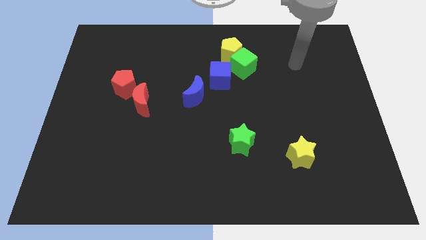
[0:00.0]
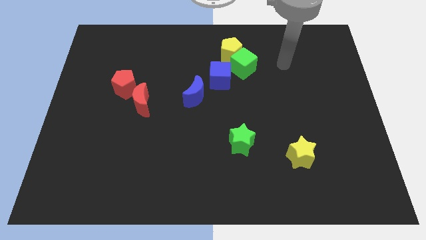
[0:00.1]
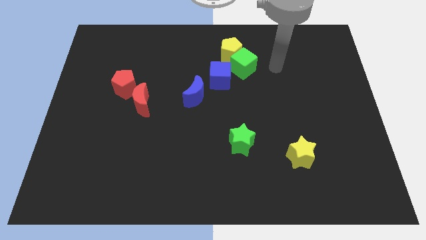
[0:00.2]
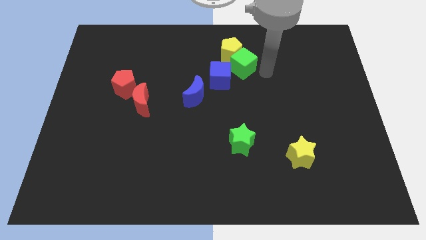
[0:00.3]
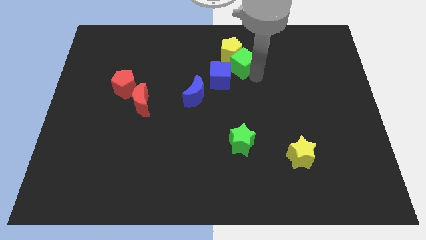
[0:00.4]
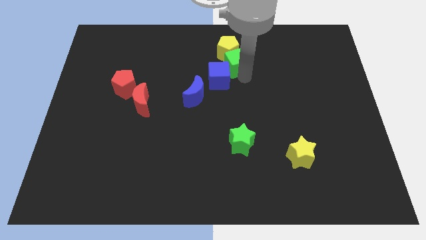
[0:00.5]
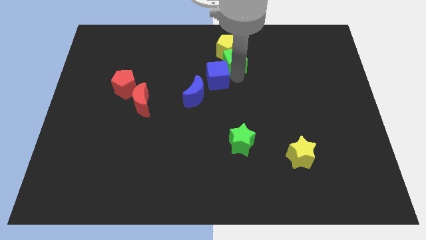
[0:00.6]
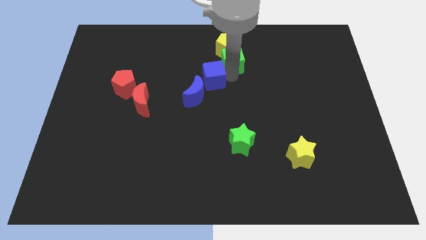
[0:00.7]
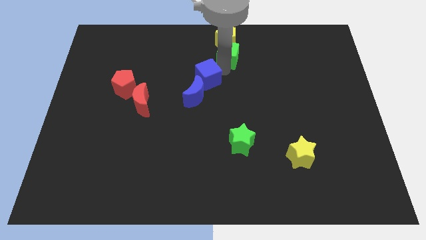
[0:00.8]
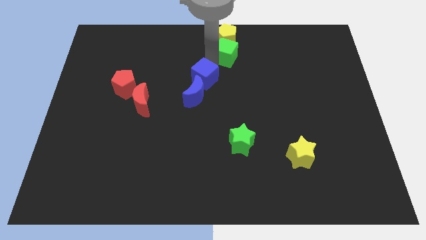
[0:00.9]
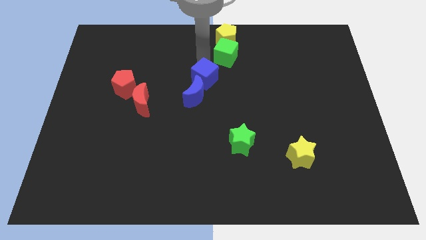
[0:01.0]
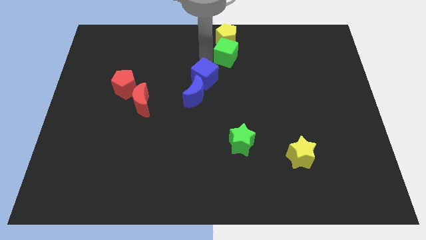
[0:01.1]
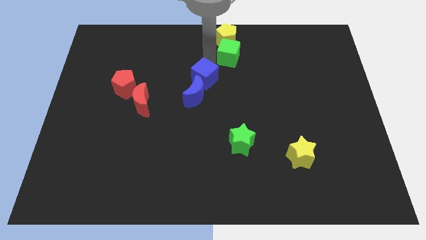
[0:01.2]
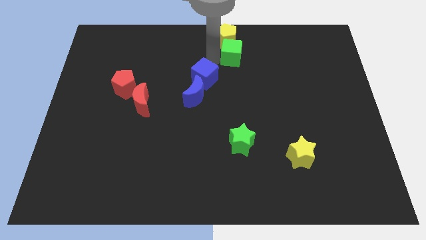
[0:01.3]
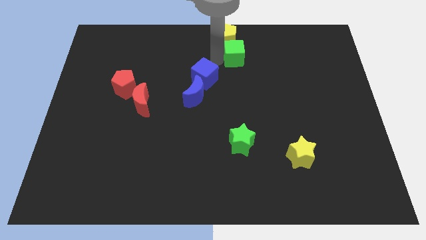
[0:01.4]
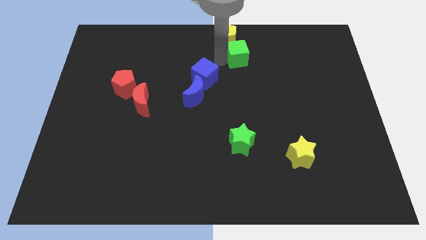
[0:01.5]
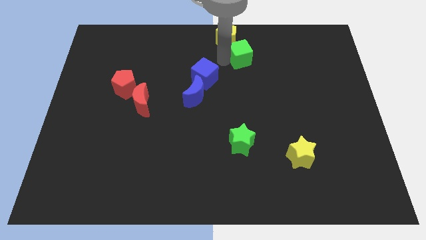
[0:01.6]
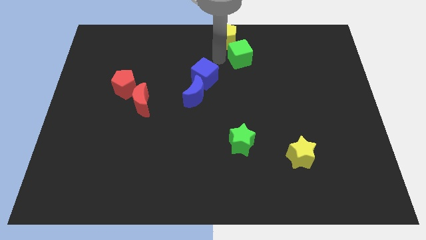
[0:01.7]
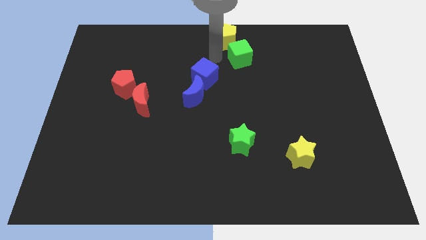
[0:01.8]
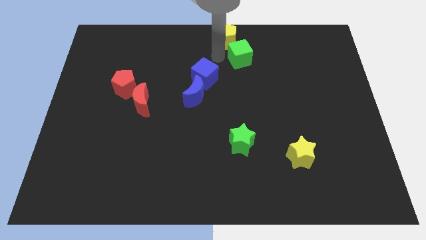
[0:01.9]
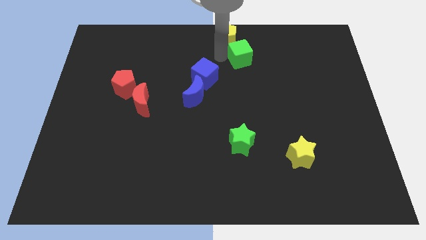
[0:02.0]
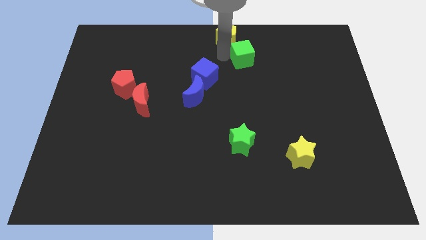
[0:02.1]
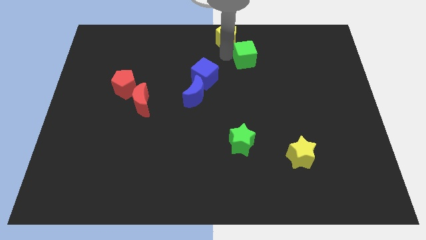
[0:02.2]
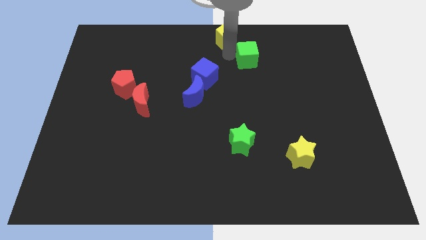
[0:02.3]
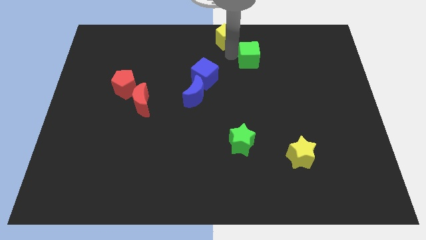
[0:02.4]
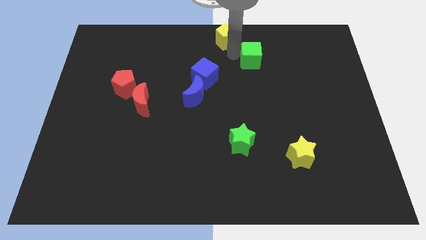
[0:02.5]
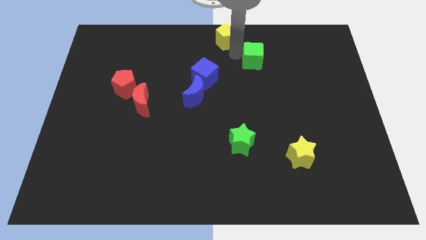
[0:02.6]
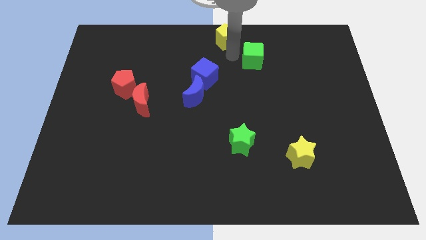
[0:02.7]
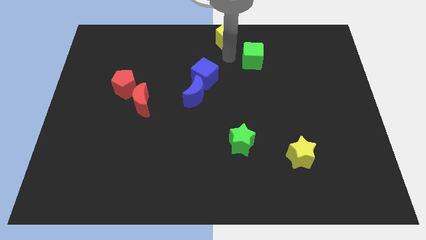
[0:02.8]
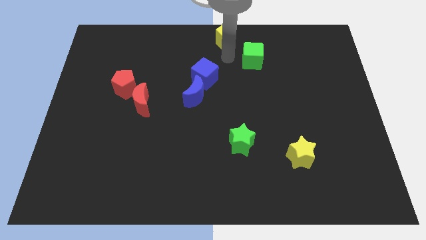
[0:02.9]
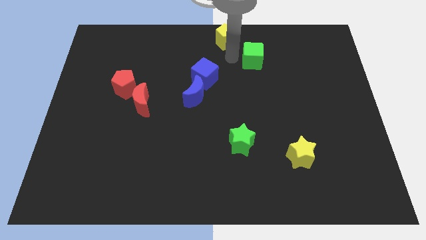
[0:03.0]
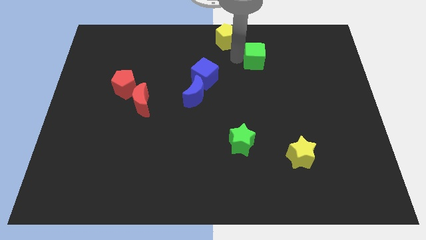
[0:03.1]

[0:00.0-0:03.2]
move the green cube away from the yellow pentagon and blue cube

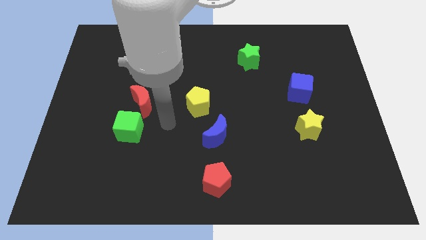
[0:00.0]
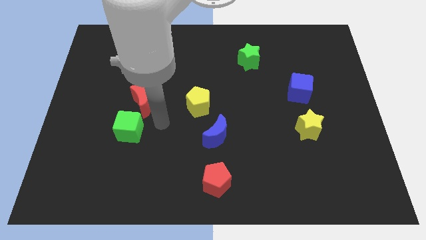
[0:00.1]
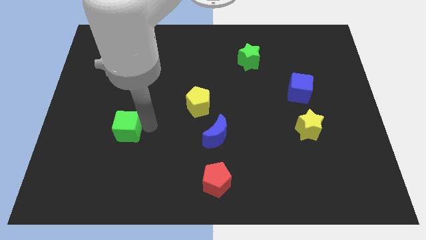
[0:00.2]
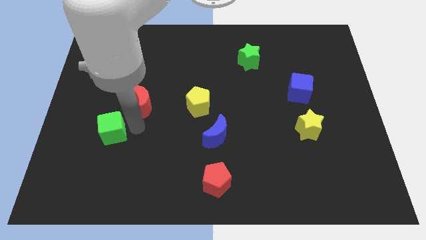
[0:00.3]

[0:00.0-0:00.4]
move the red moon away from the green cube

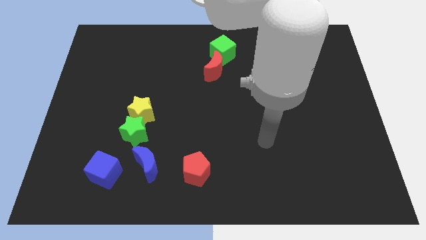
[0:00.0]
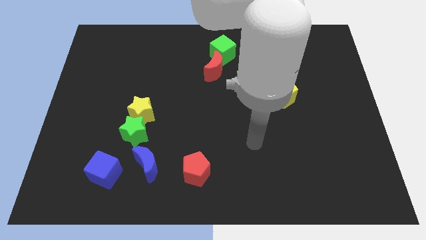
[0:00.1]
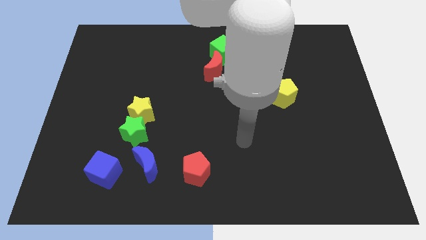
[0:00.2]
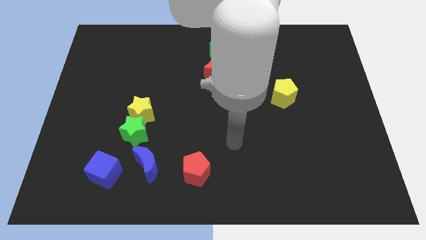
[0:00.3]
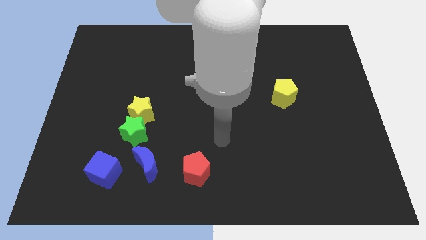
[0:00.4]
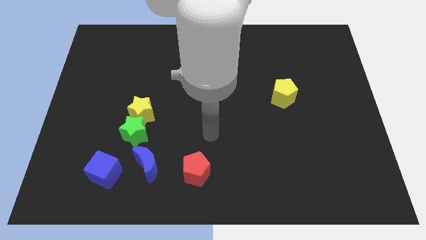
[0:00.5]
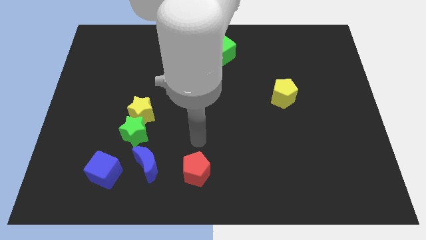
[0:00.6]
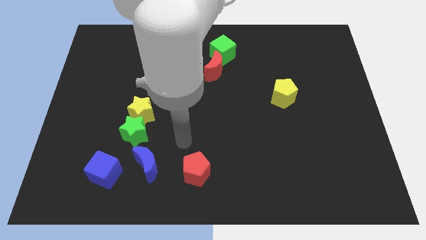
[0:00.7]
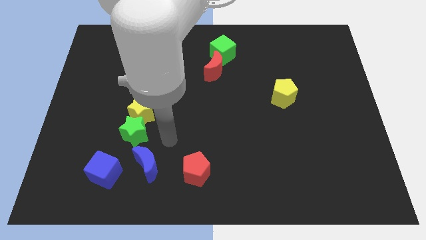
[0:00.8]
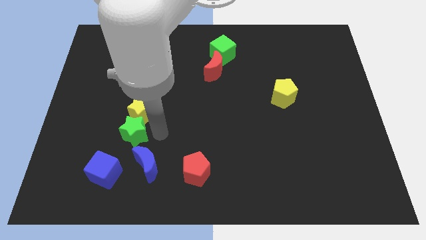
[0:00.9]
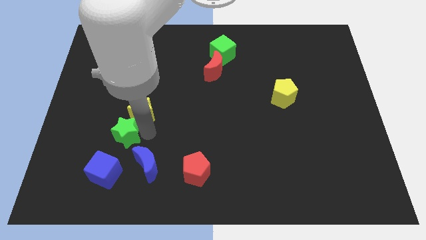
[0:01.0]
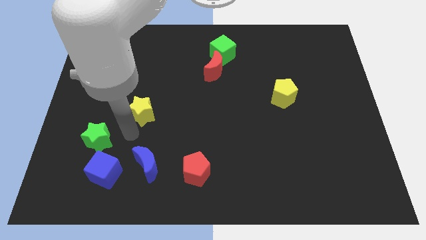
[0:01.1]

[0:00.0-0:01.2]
move the yellow star away from the green star

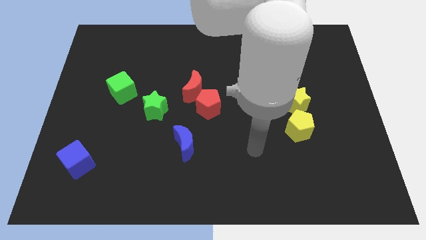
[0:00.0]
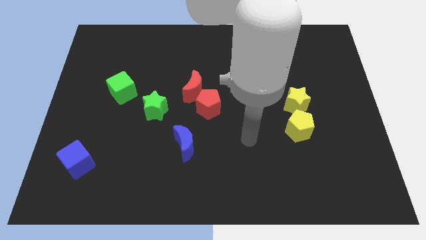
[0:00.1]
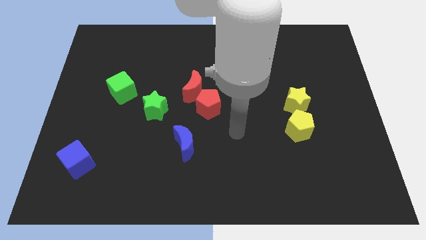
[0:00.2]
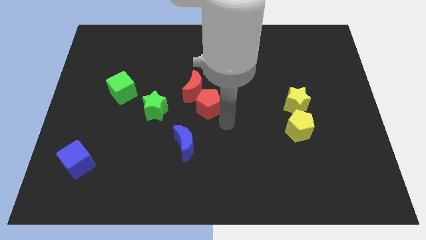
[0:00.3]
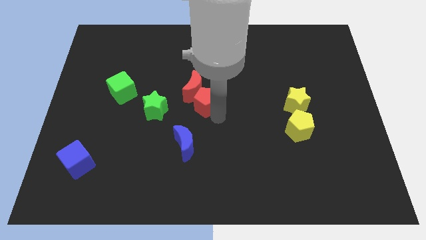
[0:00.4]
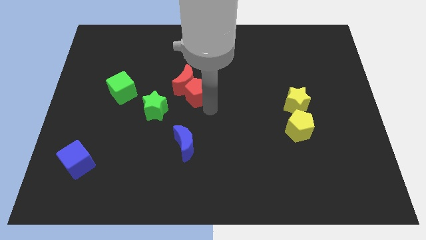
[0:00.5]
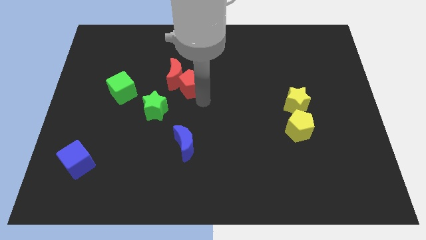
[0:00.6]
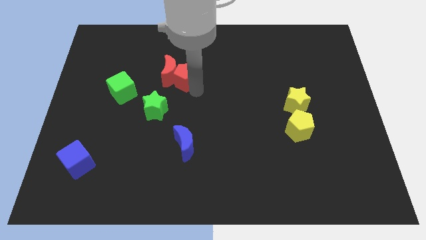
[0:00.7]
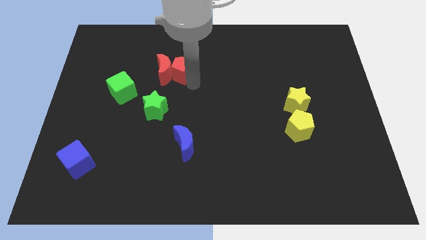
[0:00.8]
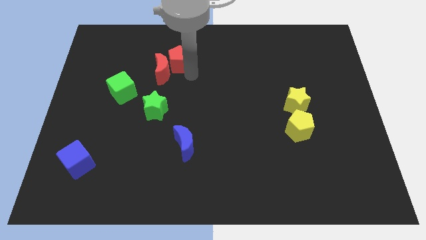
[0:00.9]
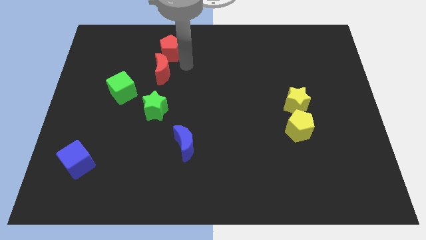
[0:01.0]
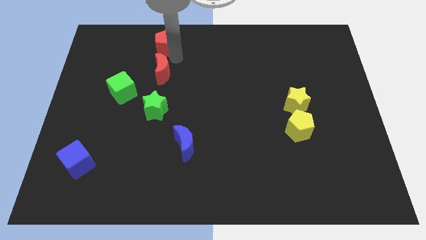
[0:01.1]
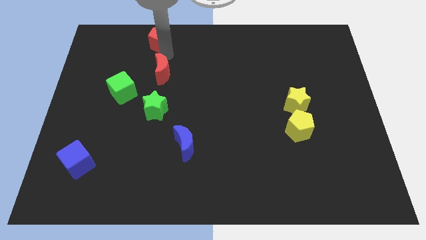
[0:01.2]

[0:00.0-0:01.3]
separate the red moon from the red pentagon

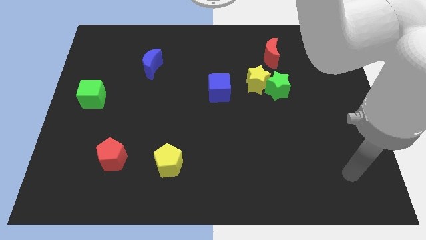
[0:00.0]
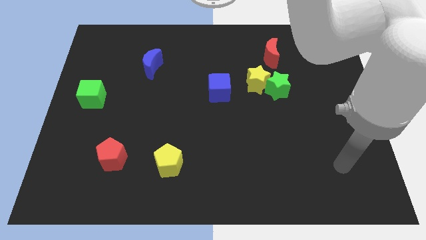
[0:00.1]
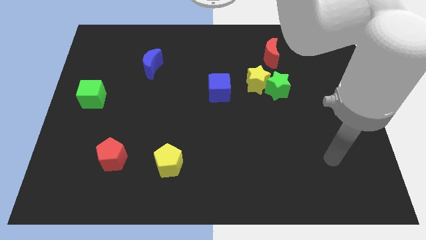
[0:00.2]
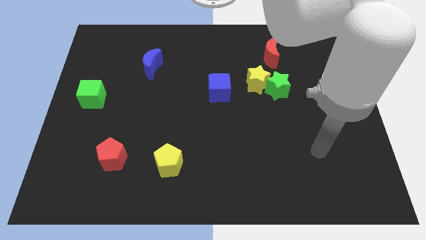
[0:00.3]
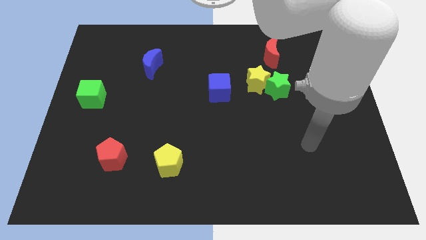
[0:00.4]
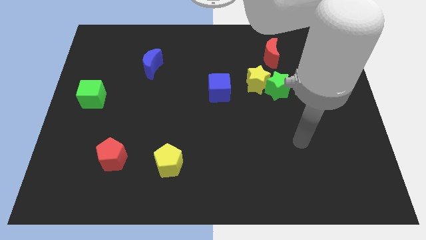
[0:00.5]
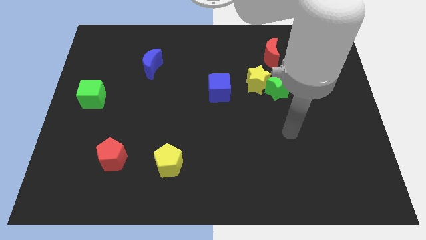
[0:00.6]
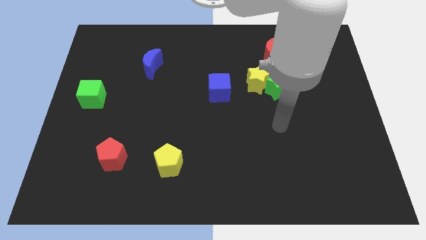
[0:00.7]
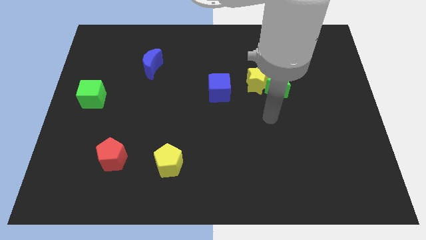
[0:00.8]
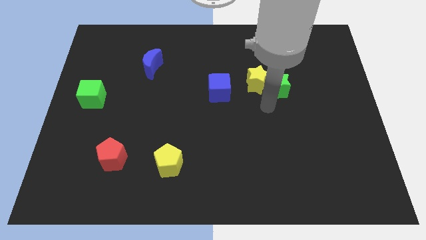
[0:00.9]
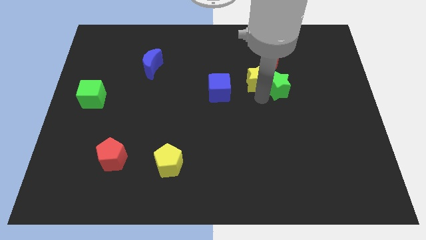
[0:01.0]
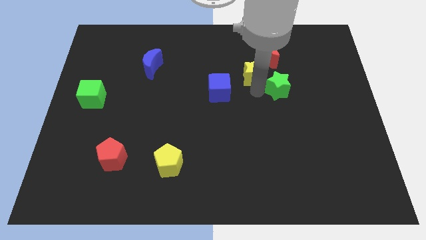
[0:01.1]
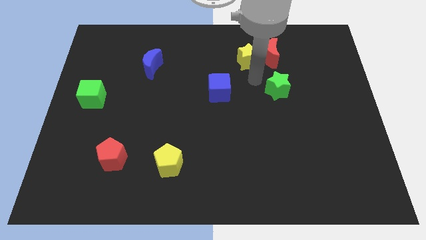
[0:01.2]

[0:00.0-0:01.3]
separate the green star from the yellow star

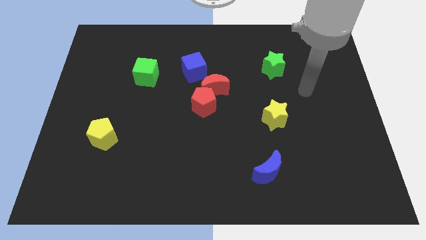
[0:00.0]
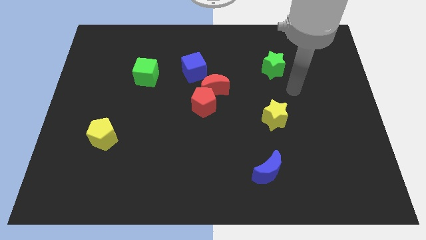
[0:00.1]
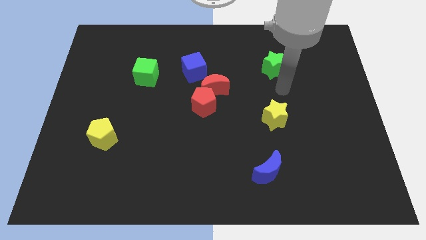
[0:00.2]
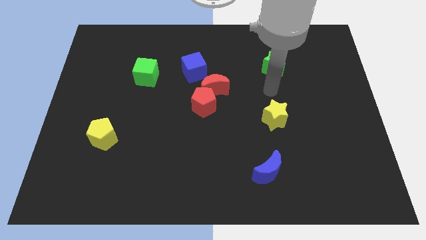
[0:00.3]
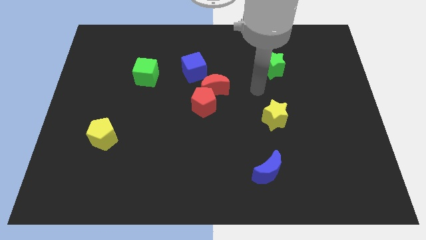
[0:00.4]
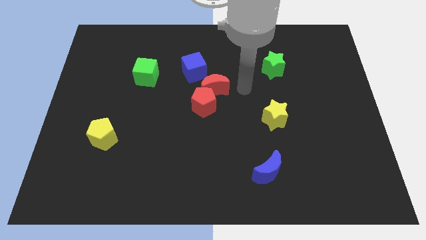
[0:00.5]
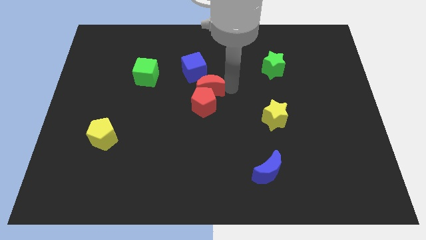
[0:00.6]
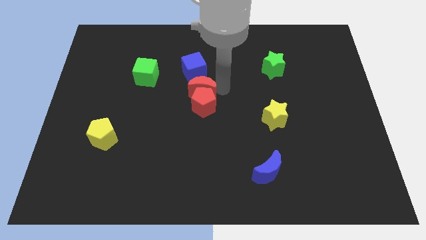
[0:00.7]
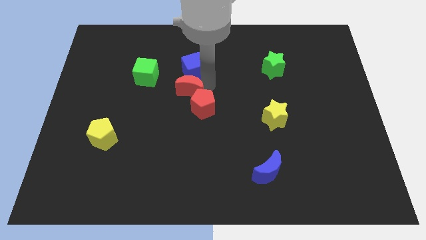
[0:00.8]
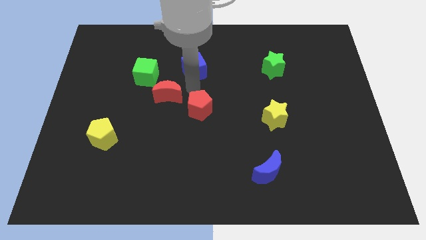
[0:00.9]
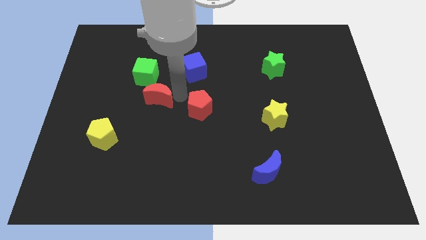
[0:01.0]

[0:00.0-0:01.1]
pull the red pentagon apart from the red moon

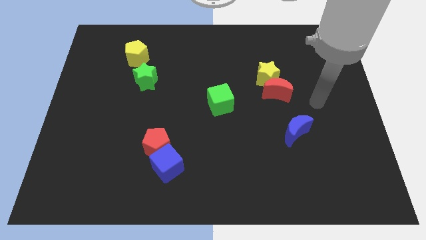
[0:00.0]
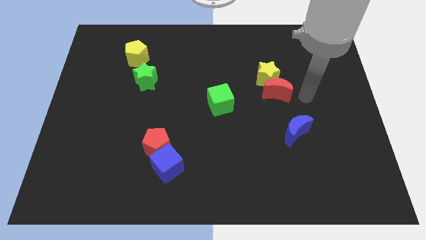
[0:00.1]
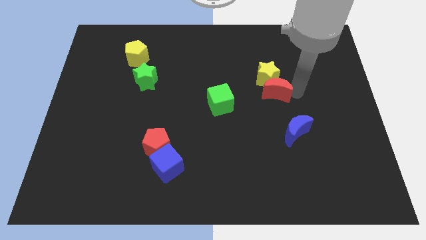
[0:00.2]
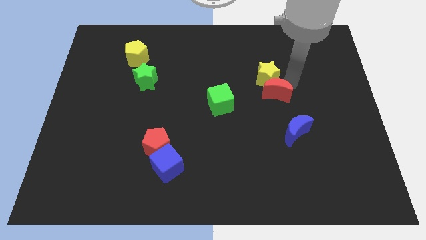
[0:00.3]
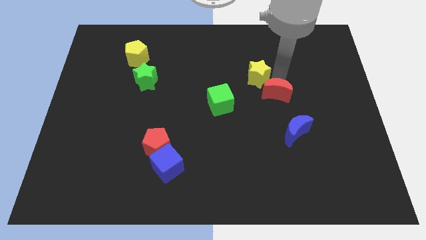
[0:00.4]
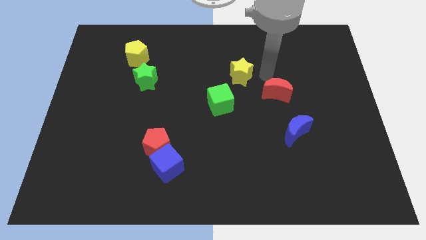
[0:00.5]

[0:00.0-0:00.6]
separate the red moon from the yellow star

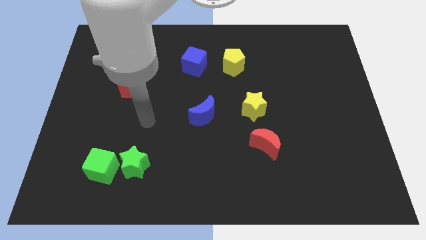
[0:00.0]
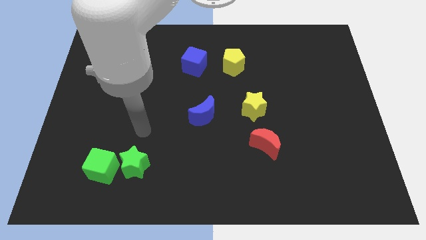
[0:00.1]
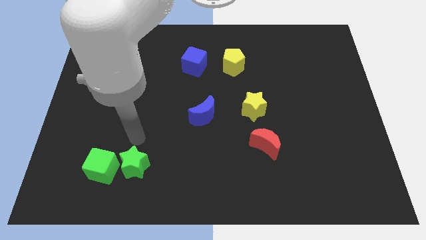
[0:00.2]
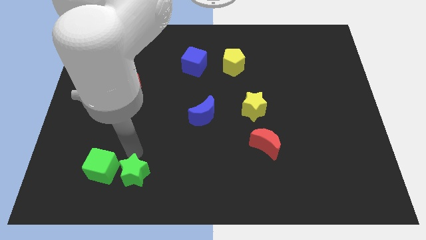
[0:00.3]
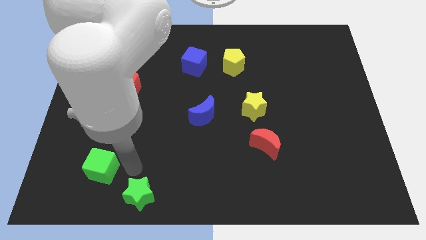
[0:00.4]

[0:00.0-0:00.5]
pull the green cube apart from the green star
